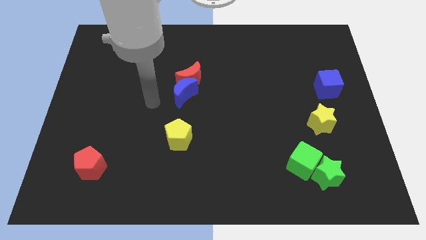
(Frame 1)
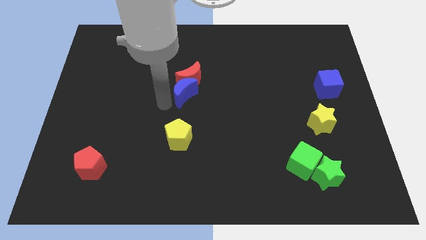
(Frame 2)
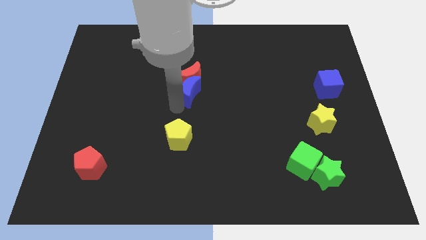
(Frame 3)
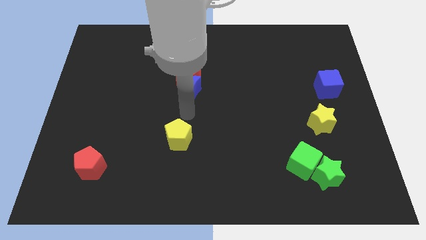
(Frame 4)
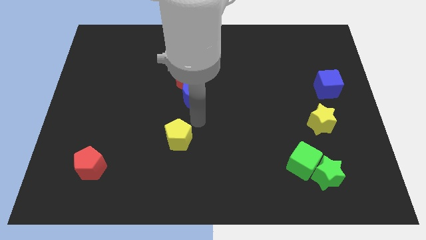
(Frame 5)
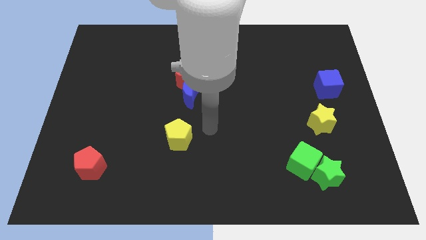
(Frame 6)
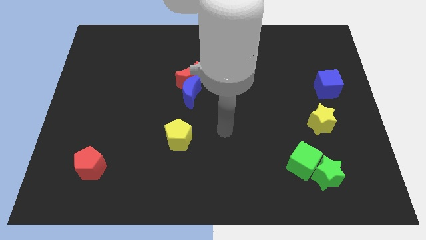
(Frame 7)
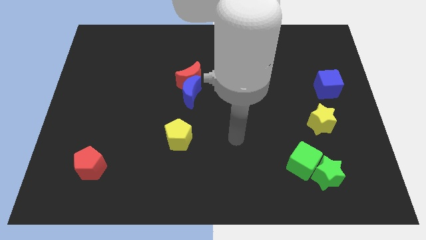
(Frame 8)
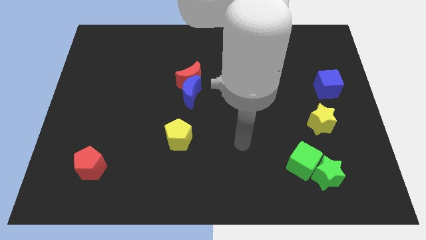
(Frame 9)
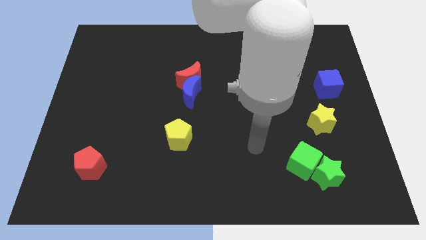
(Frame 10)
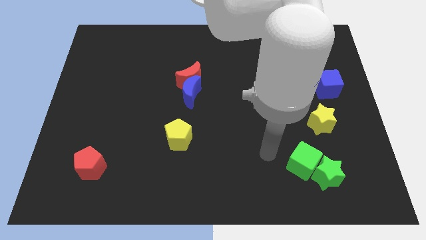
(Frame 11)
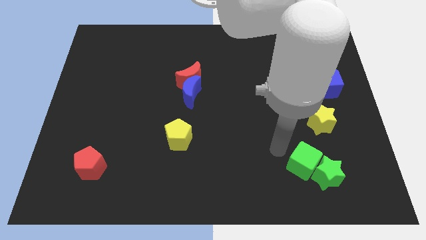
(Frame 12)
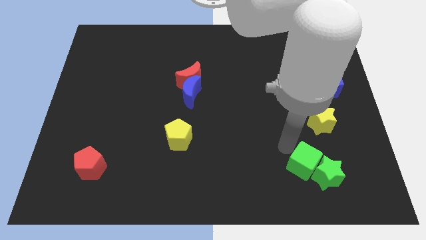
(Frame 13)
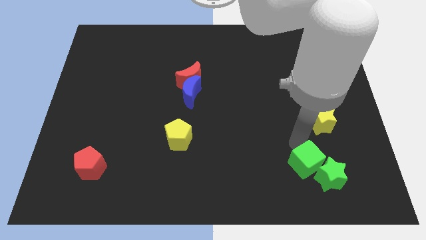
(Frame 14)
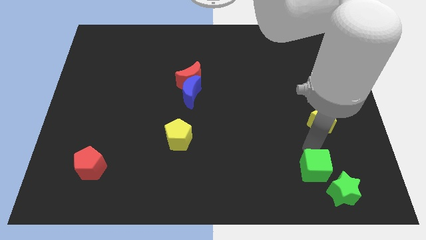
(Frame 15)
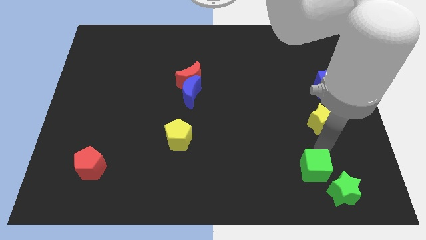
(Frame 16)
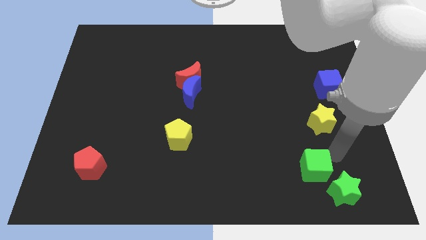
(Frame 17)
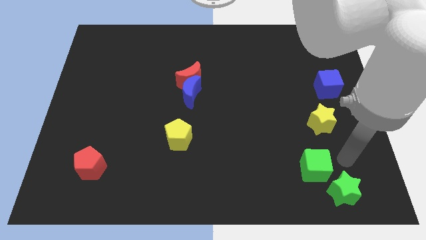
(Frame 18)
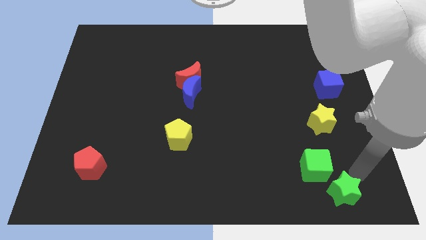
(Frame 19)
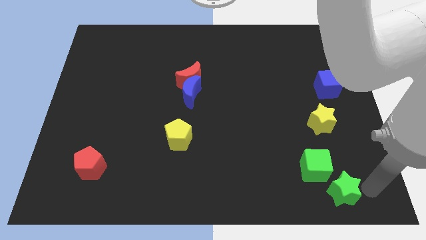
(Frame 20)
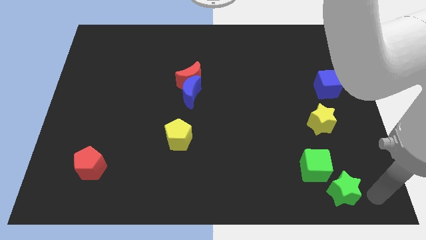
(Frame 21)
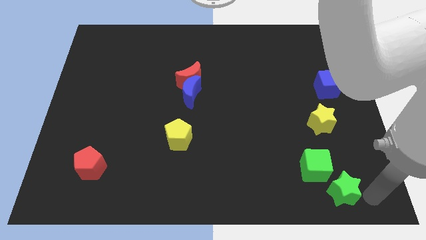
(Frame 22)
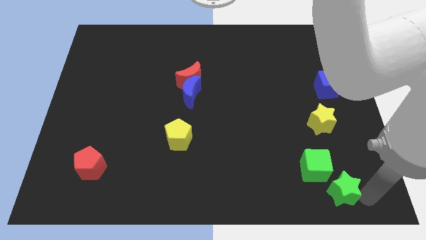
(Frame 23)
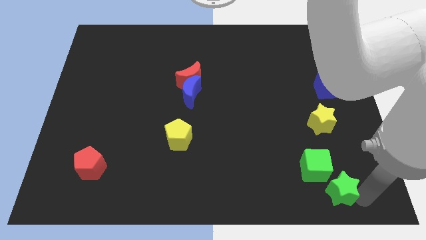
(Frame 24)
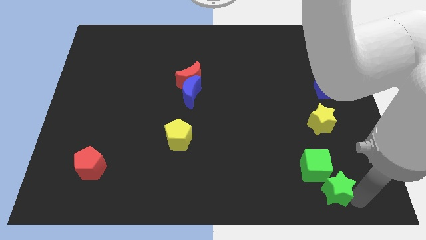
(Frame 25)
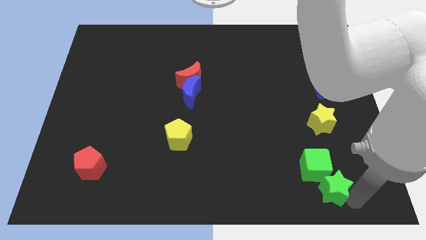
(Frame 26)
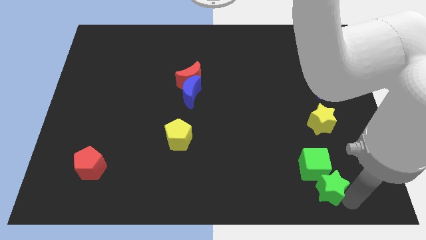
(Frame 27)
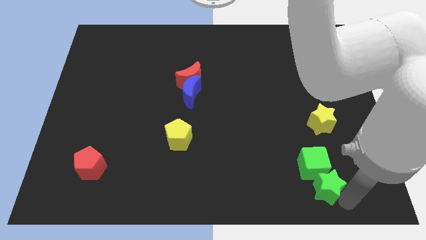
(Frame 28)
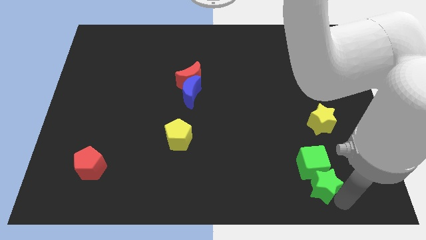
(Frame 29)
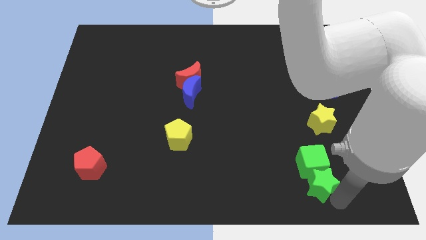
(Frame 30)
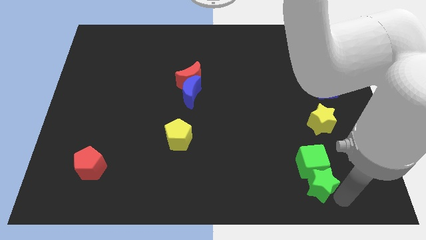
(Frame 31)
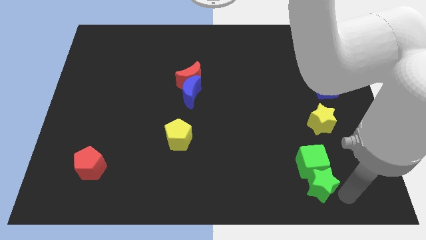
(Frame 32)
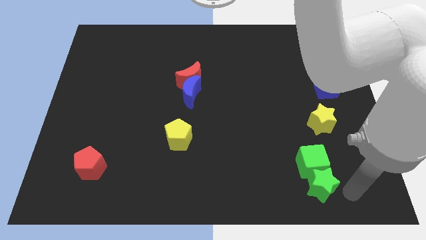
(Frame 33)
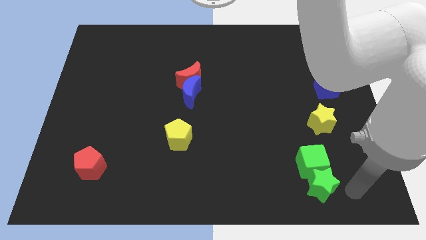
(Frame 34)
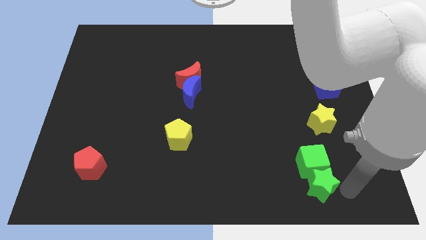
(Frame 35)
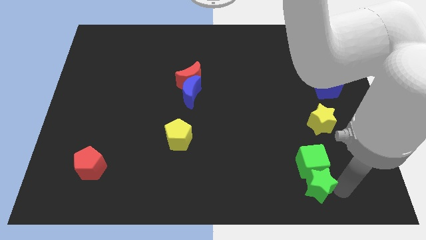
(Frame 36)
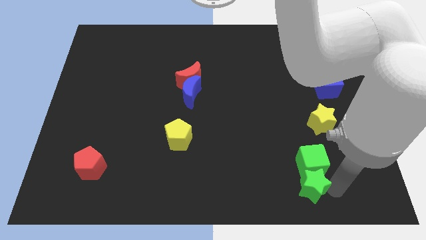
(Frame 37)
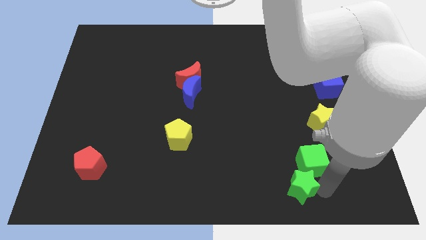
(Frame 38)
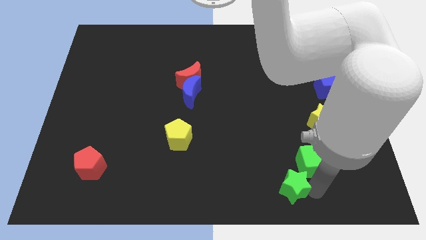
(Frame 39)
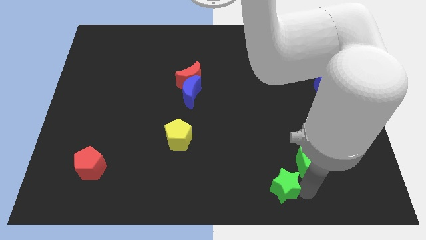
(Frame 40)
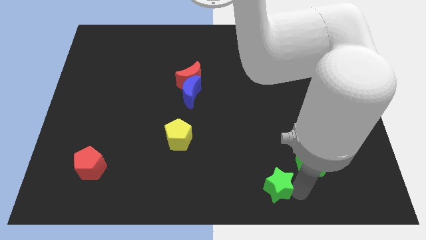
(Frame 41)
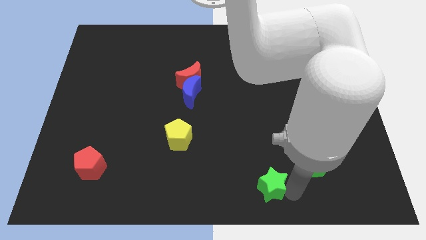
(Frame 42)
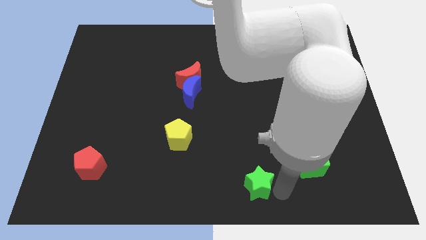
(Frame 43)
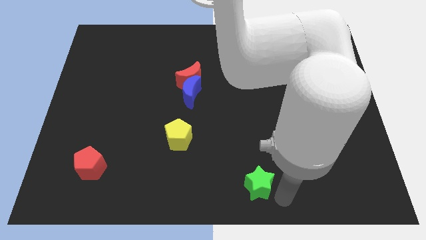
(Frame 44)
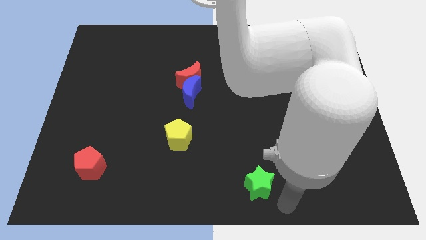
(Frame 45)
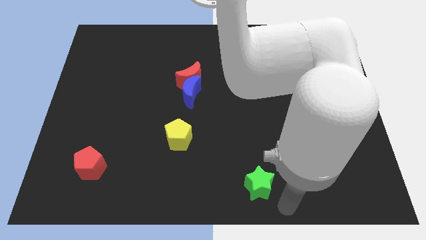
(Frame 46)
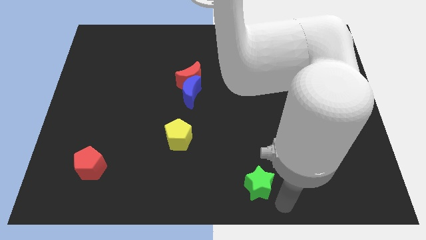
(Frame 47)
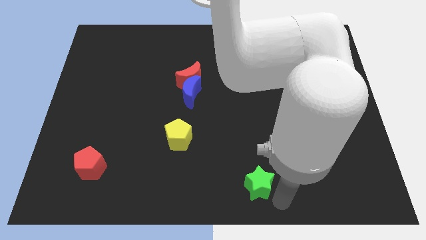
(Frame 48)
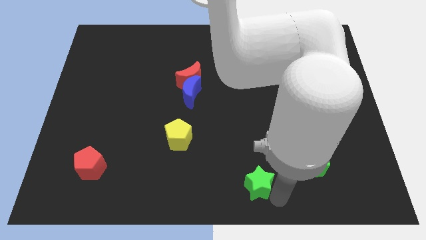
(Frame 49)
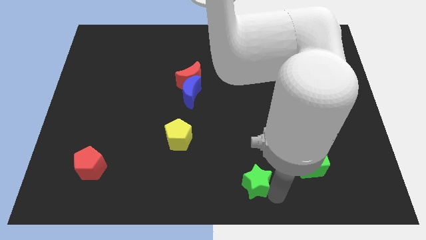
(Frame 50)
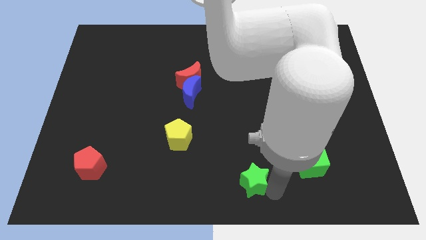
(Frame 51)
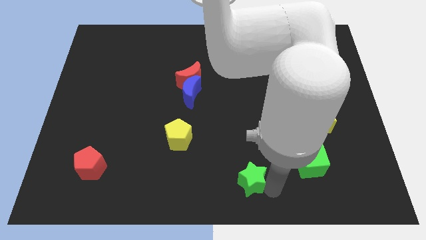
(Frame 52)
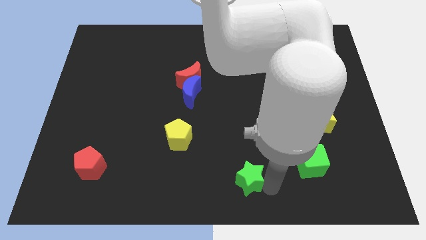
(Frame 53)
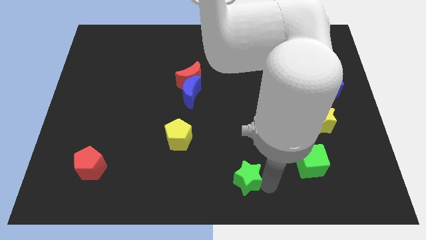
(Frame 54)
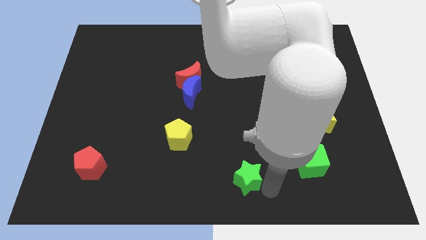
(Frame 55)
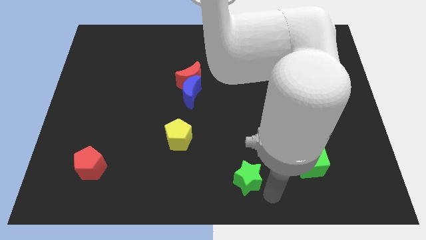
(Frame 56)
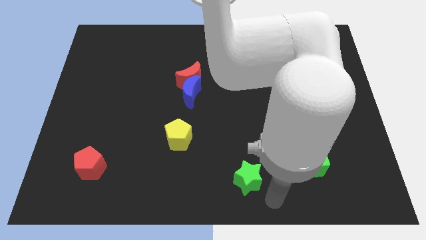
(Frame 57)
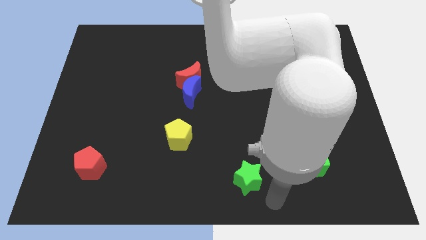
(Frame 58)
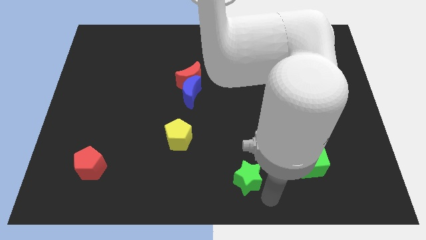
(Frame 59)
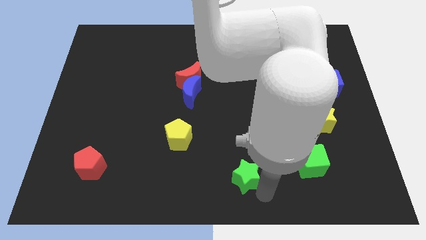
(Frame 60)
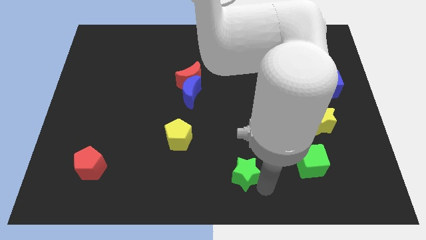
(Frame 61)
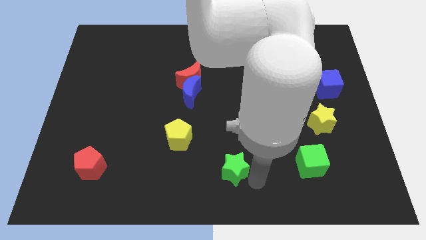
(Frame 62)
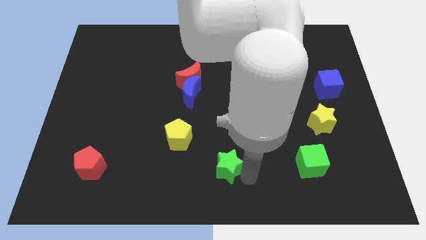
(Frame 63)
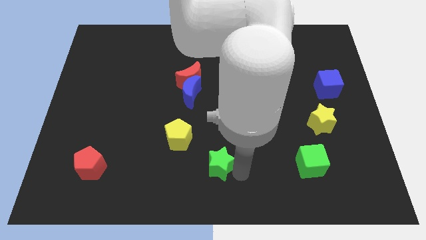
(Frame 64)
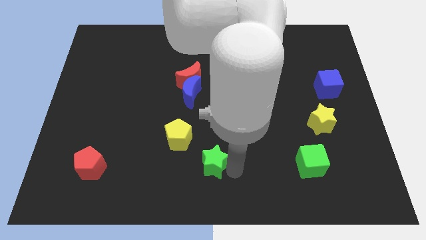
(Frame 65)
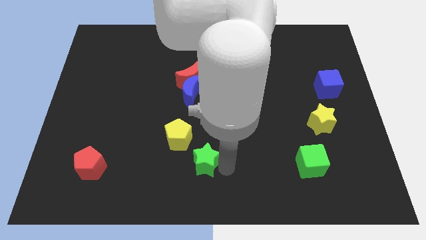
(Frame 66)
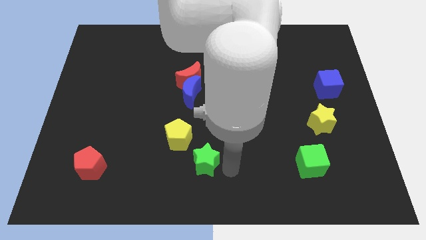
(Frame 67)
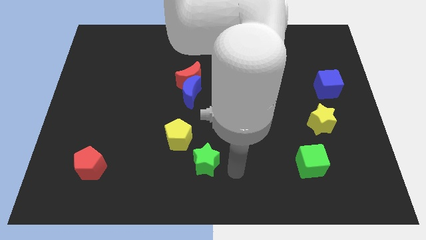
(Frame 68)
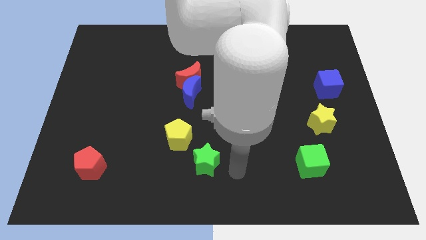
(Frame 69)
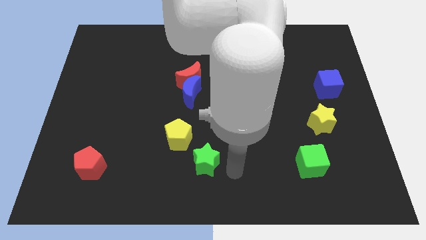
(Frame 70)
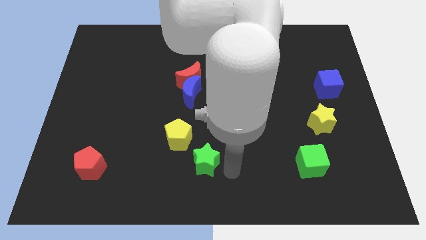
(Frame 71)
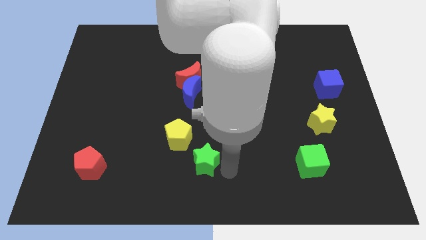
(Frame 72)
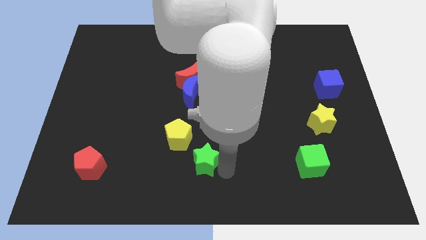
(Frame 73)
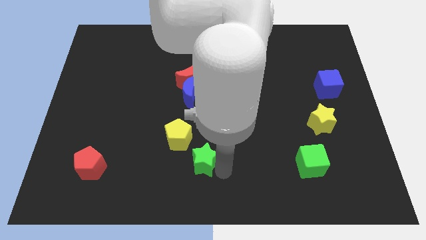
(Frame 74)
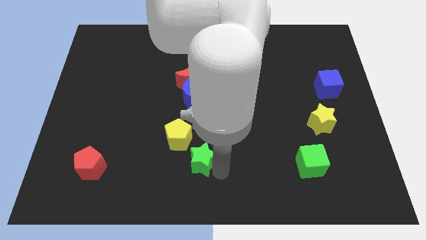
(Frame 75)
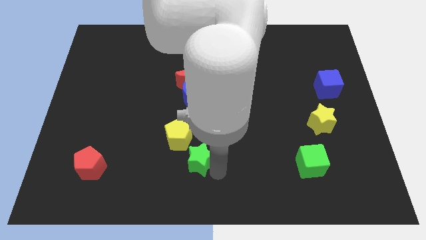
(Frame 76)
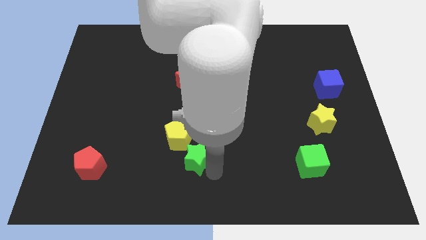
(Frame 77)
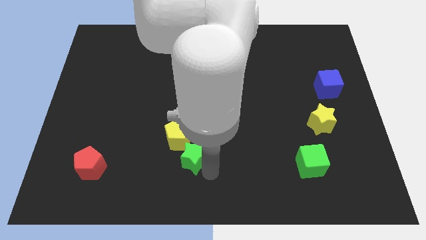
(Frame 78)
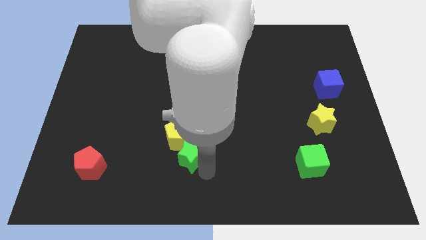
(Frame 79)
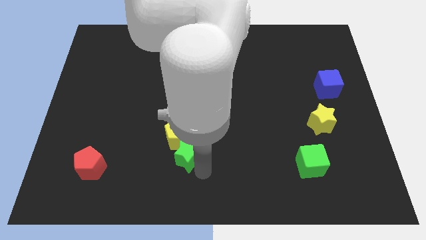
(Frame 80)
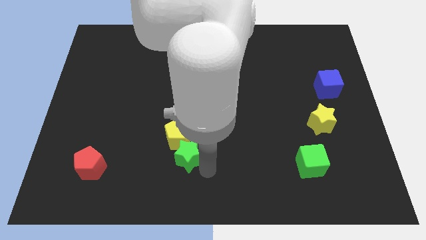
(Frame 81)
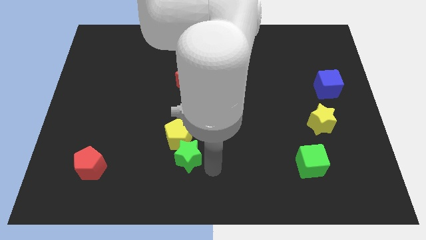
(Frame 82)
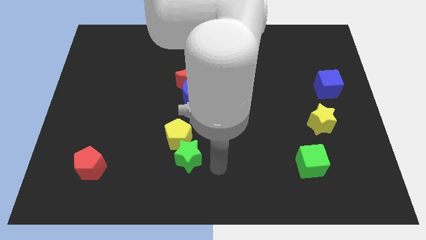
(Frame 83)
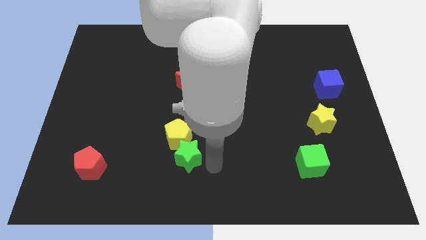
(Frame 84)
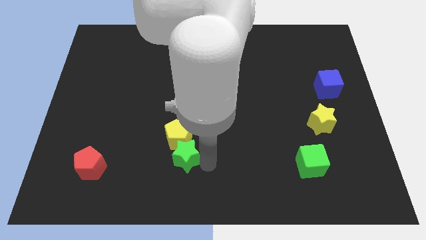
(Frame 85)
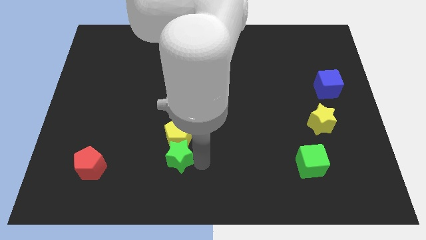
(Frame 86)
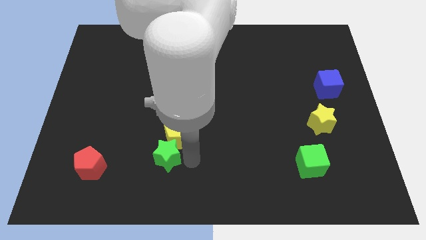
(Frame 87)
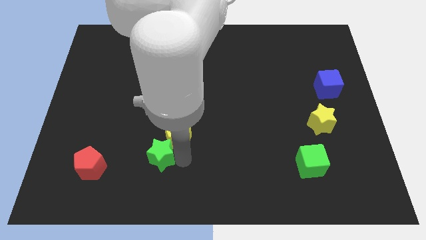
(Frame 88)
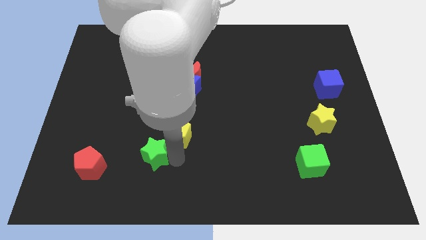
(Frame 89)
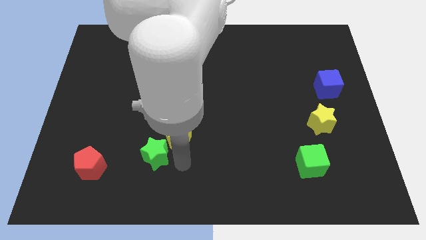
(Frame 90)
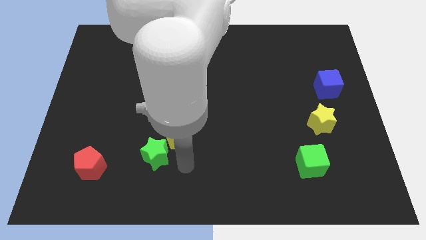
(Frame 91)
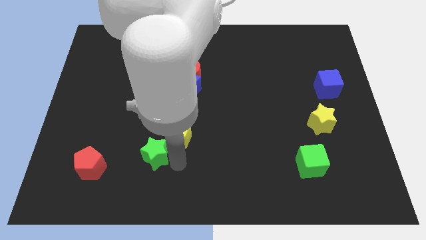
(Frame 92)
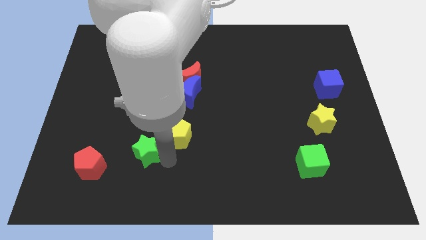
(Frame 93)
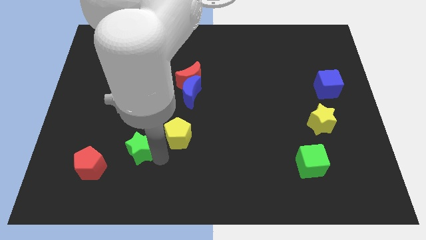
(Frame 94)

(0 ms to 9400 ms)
put the green star to the top right side of the red pentagon
